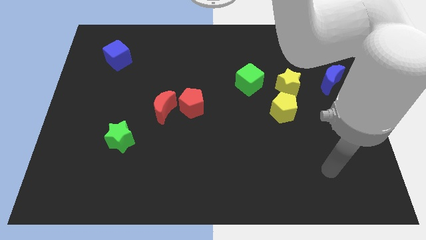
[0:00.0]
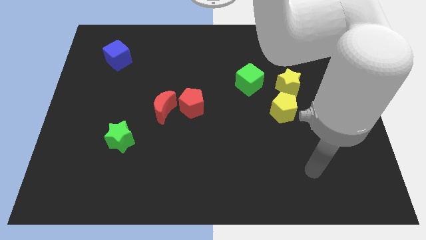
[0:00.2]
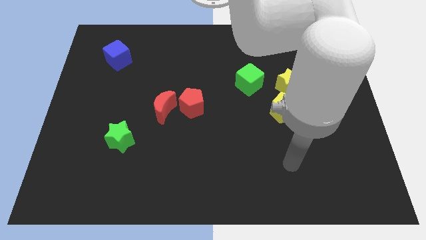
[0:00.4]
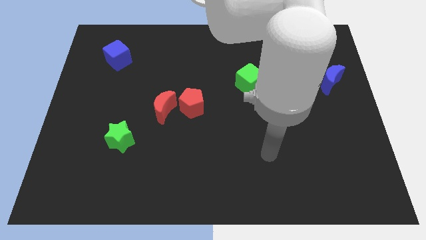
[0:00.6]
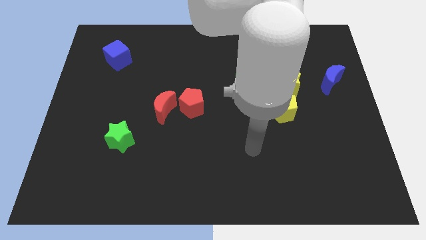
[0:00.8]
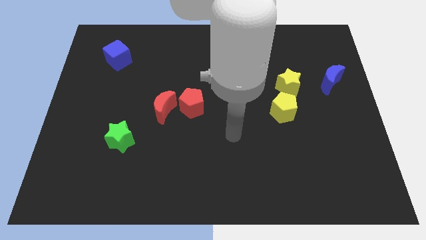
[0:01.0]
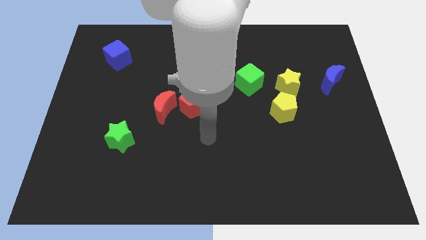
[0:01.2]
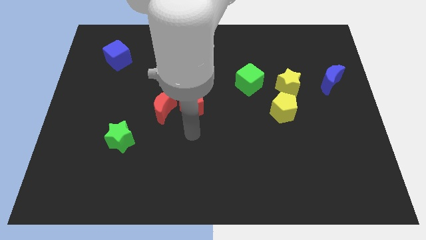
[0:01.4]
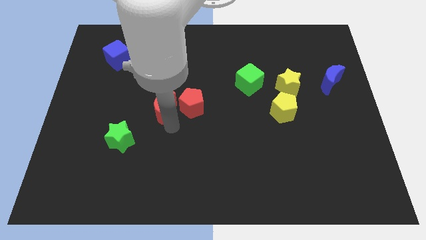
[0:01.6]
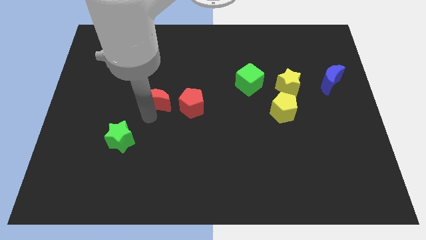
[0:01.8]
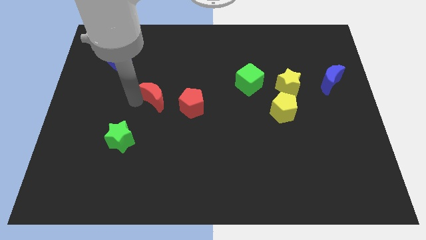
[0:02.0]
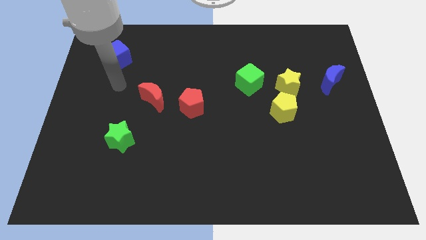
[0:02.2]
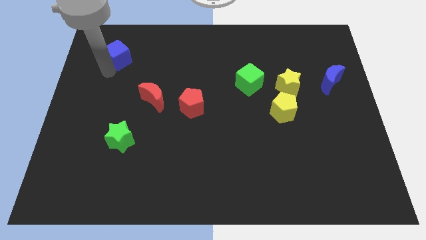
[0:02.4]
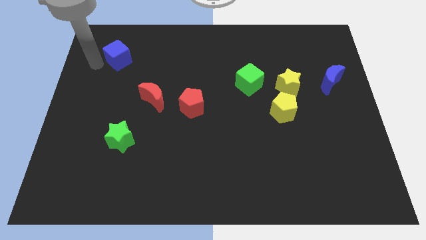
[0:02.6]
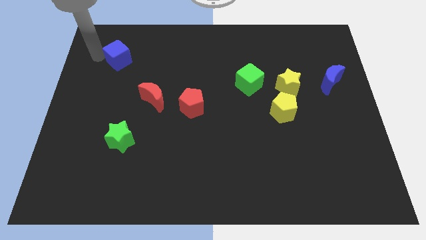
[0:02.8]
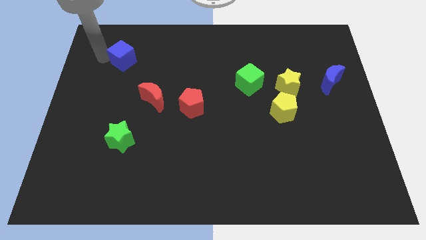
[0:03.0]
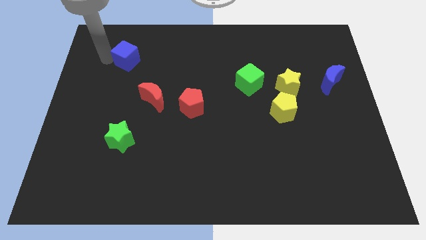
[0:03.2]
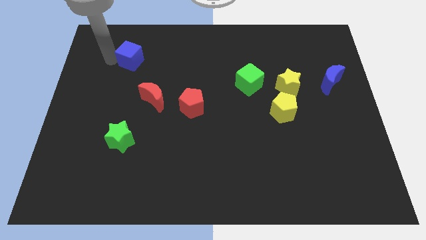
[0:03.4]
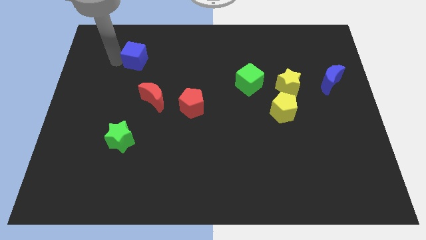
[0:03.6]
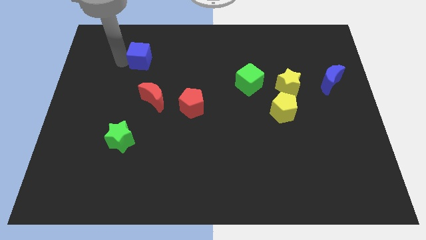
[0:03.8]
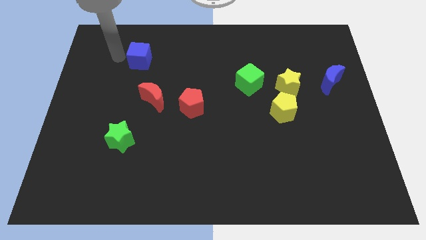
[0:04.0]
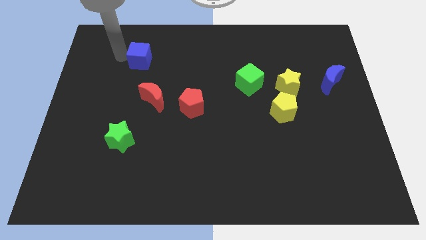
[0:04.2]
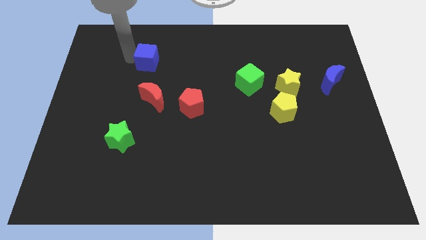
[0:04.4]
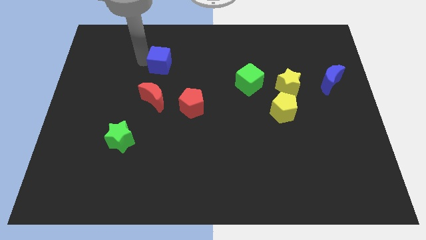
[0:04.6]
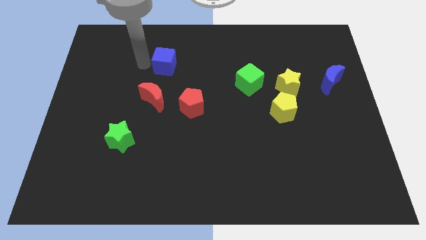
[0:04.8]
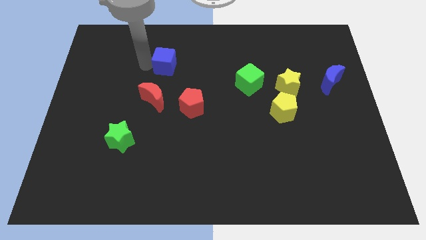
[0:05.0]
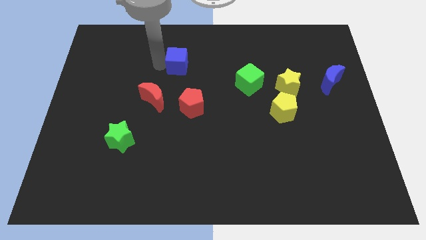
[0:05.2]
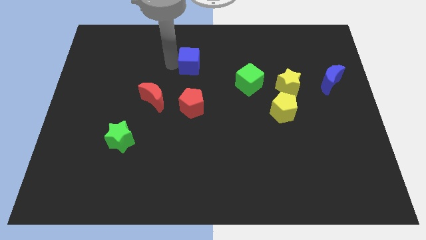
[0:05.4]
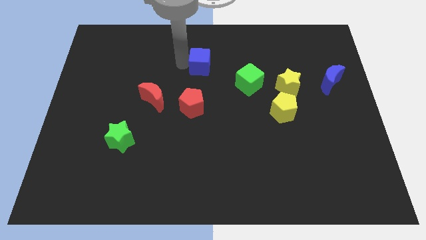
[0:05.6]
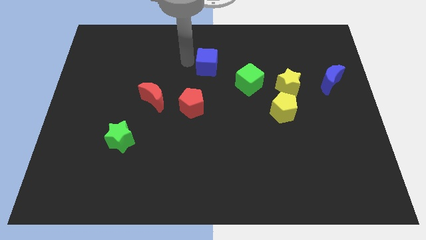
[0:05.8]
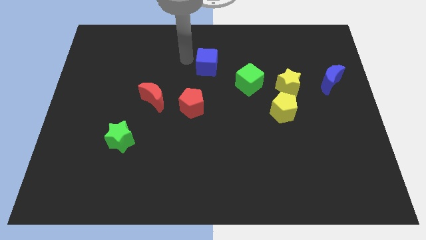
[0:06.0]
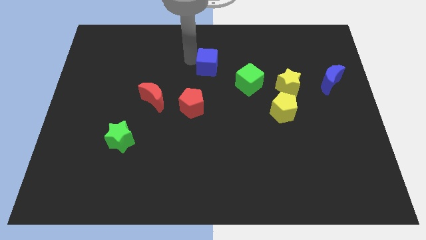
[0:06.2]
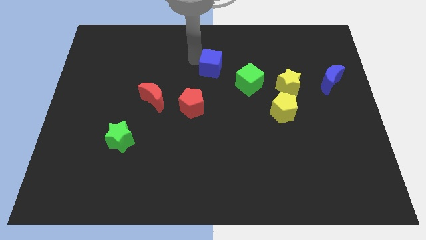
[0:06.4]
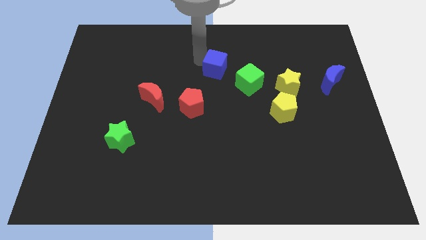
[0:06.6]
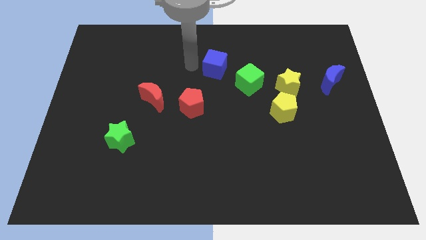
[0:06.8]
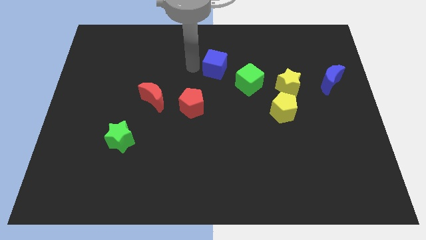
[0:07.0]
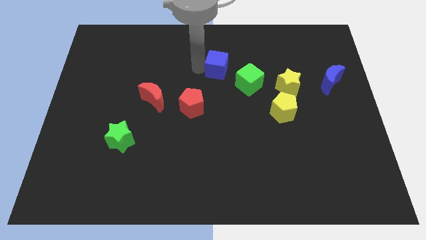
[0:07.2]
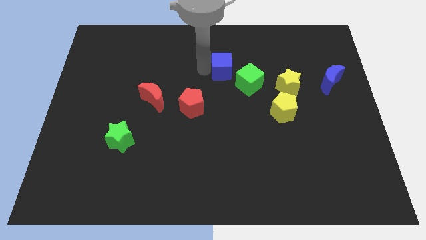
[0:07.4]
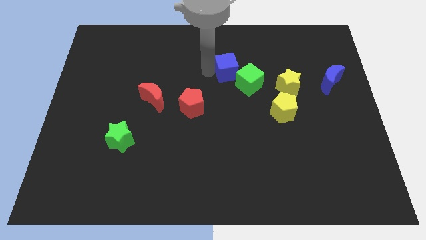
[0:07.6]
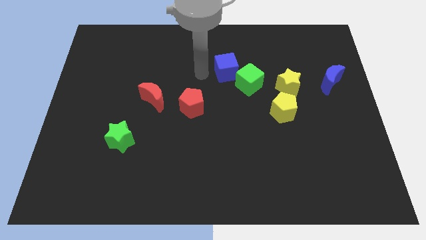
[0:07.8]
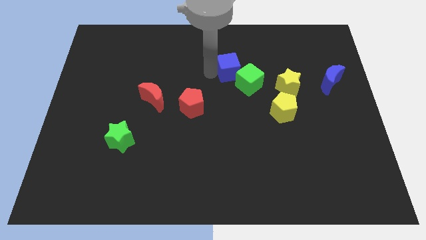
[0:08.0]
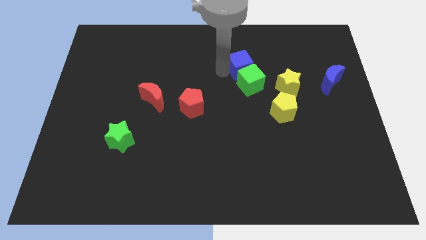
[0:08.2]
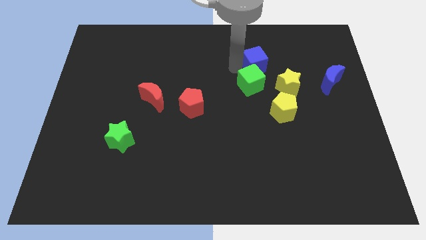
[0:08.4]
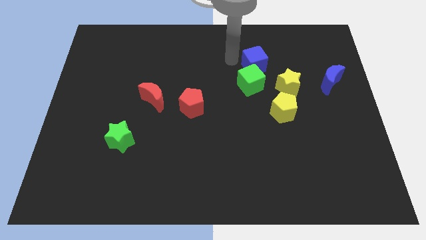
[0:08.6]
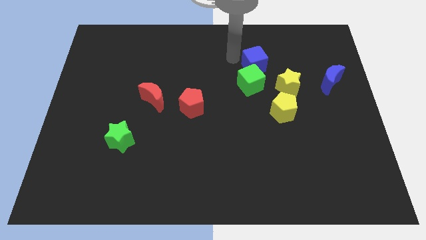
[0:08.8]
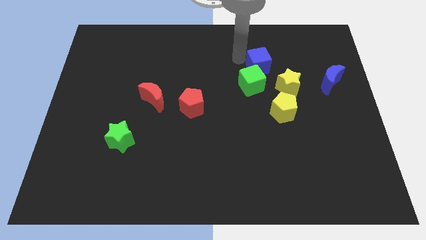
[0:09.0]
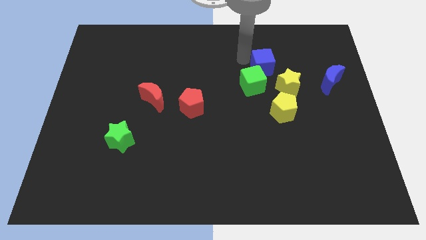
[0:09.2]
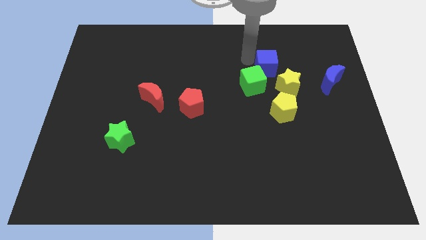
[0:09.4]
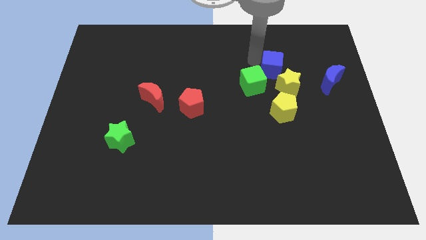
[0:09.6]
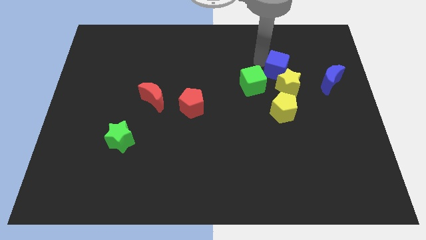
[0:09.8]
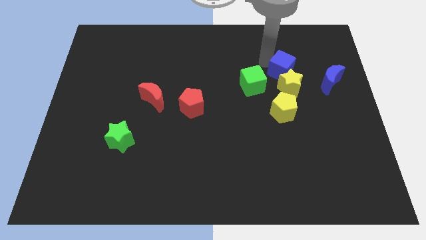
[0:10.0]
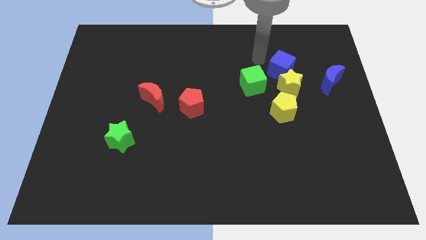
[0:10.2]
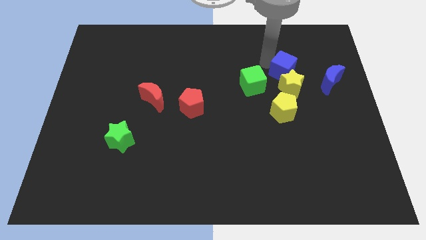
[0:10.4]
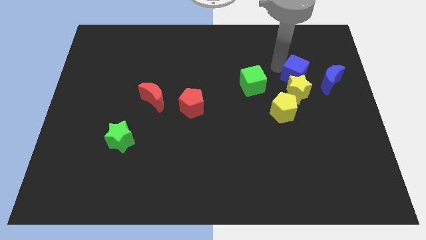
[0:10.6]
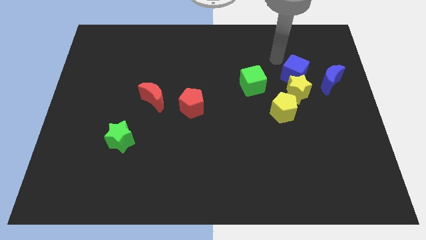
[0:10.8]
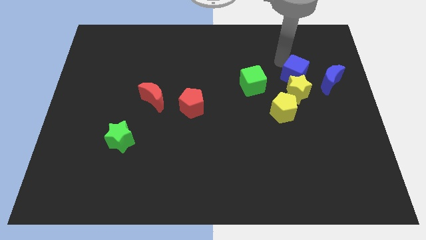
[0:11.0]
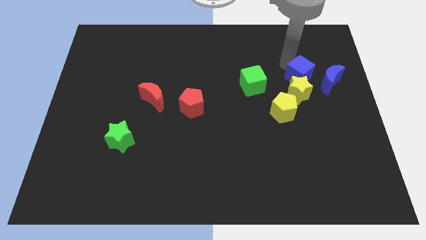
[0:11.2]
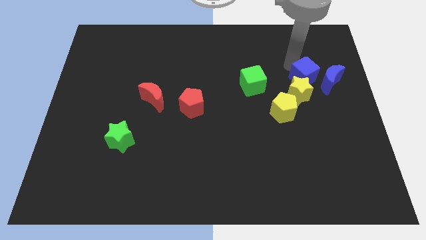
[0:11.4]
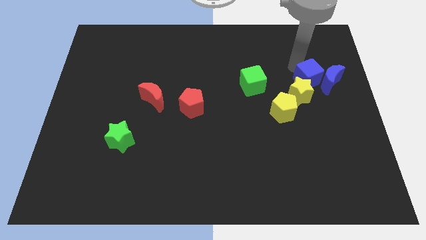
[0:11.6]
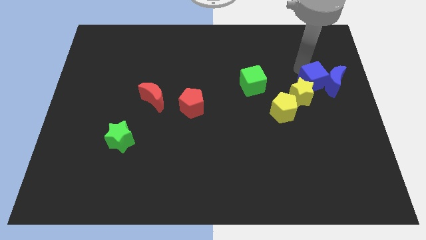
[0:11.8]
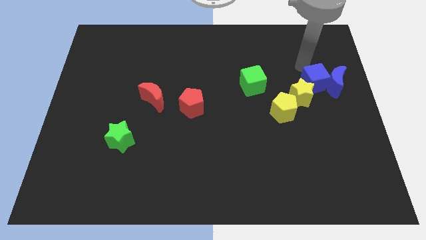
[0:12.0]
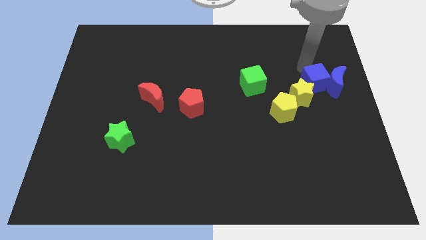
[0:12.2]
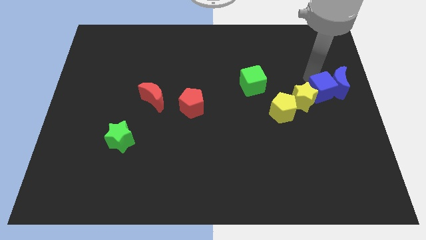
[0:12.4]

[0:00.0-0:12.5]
put the blue cube to the center right
